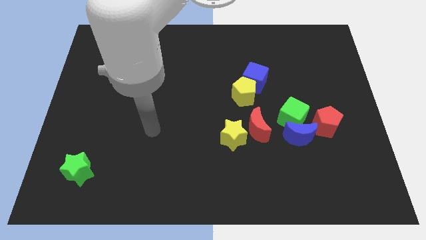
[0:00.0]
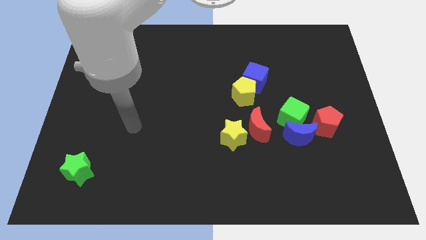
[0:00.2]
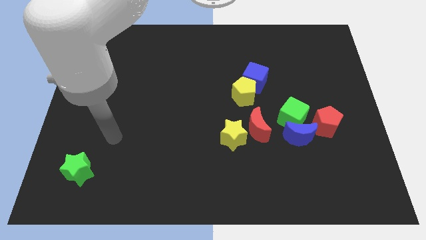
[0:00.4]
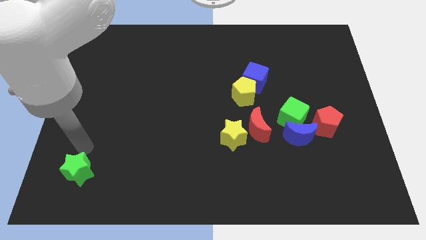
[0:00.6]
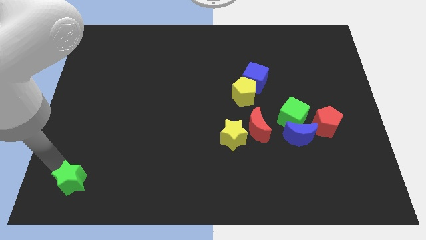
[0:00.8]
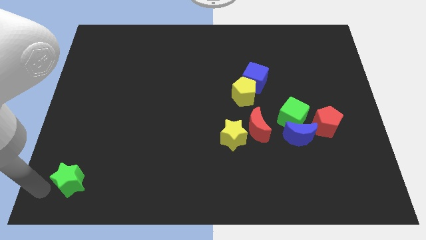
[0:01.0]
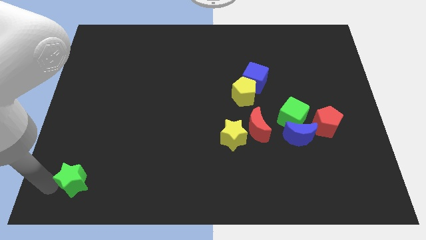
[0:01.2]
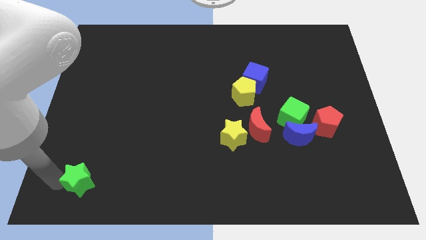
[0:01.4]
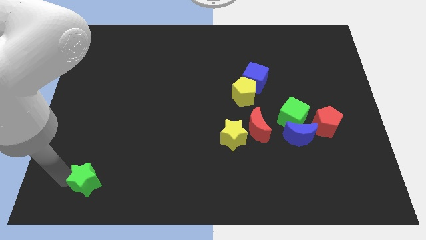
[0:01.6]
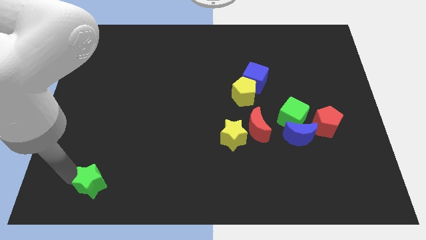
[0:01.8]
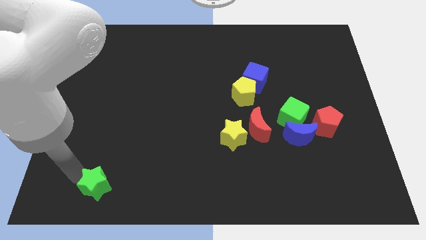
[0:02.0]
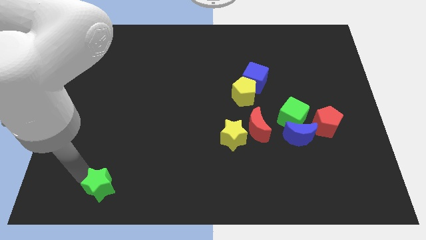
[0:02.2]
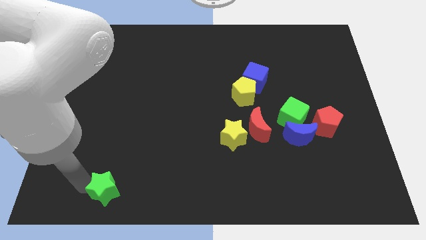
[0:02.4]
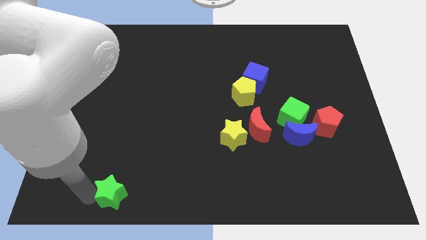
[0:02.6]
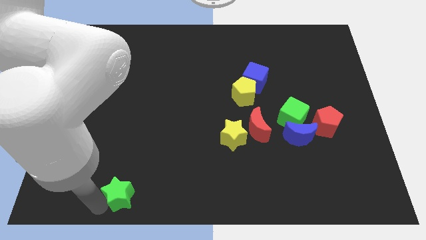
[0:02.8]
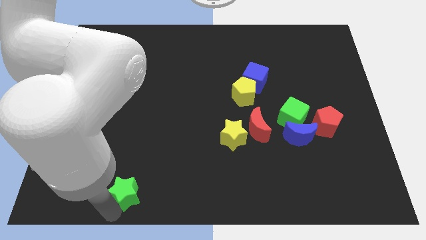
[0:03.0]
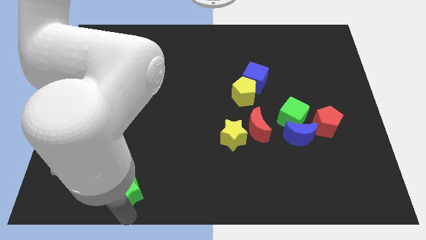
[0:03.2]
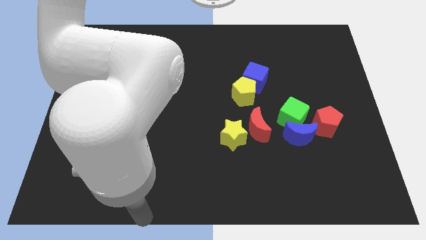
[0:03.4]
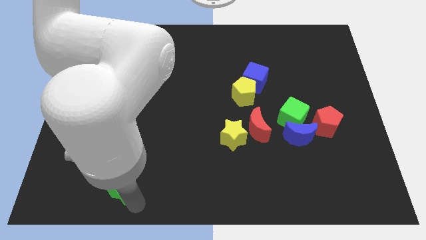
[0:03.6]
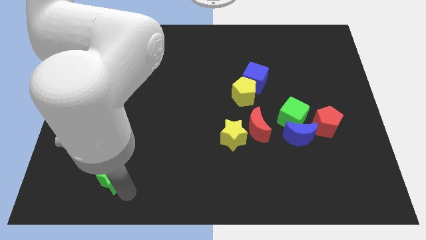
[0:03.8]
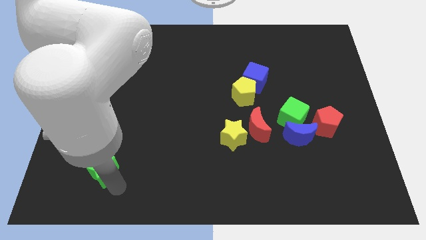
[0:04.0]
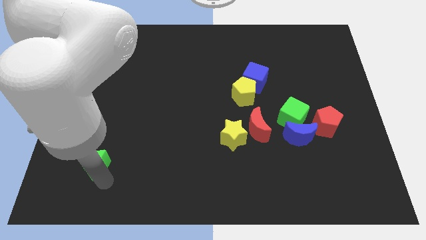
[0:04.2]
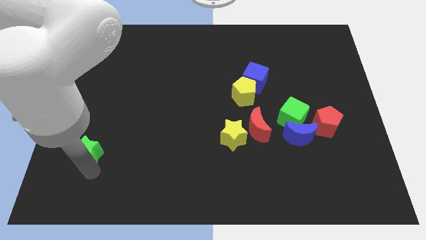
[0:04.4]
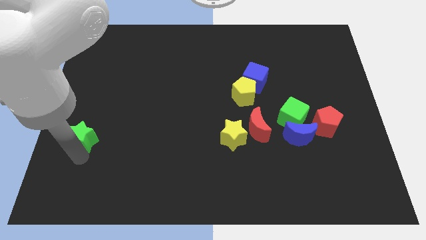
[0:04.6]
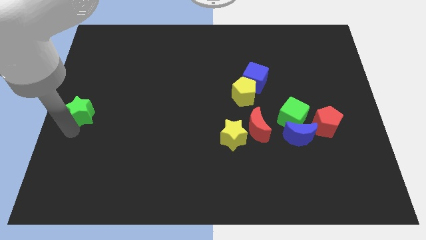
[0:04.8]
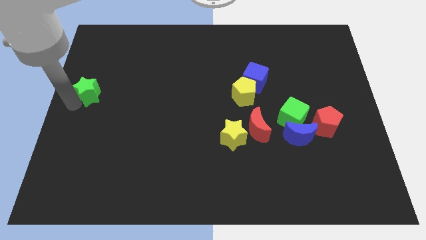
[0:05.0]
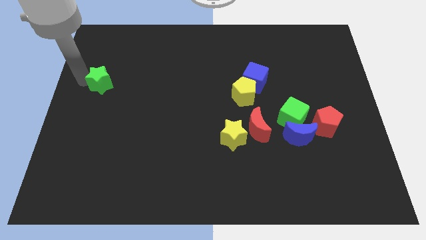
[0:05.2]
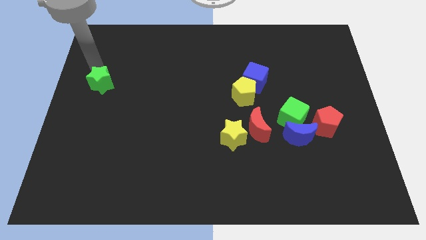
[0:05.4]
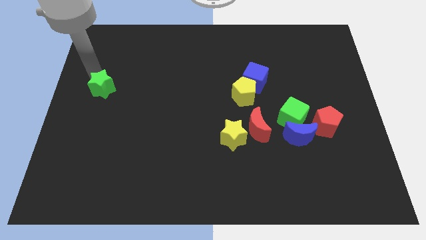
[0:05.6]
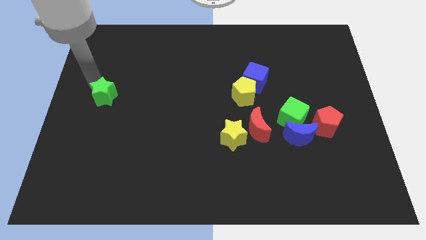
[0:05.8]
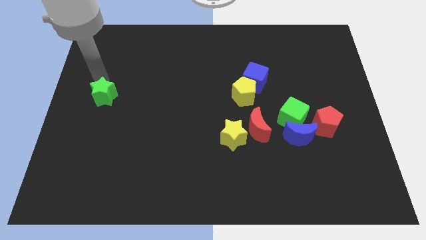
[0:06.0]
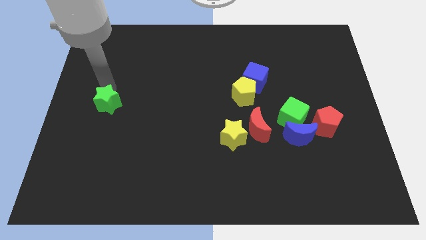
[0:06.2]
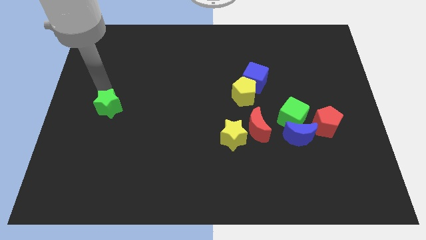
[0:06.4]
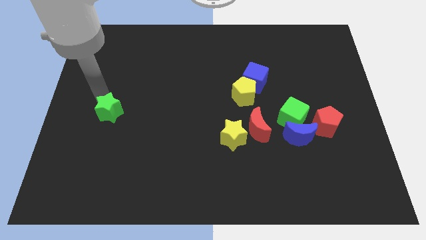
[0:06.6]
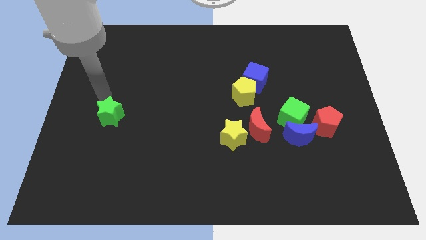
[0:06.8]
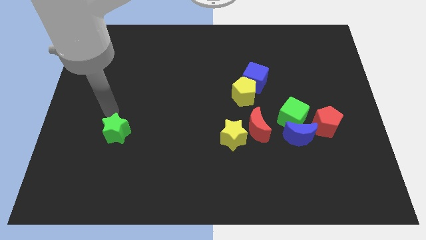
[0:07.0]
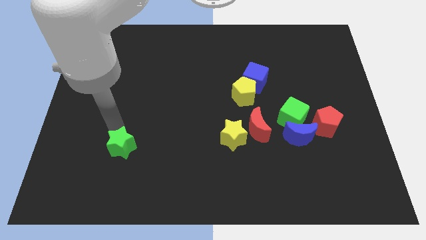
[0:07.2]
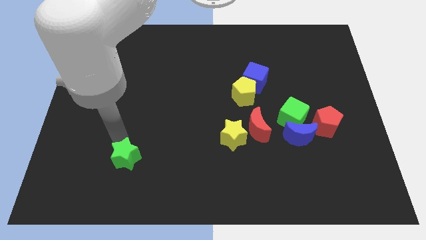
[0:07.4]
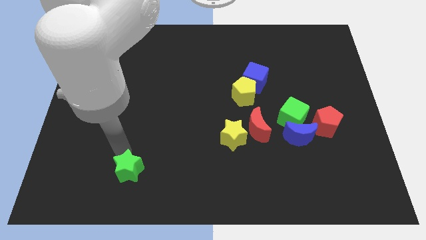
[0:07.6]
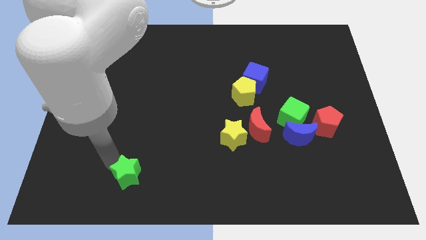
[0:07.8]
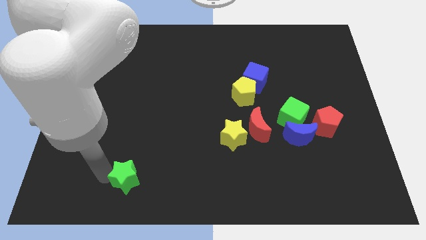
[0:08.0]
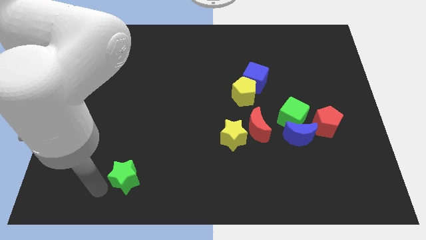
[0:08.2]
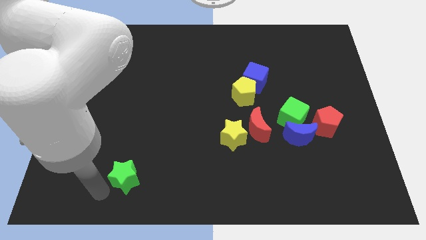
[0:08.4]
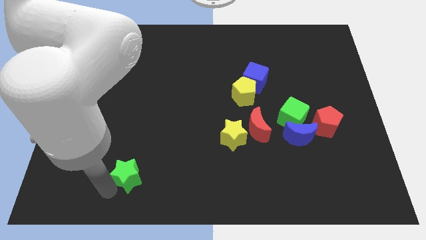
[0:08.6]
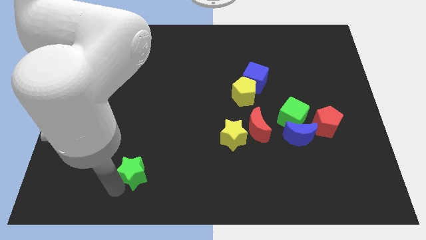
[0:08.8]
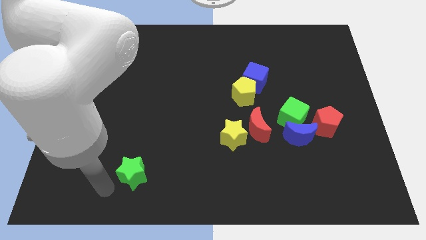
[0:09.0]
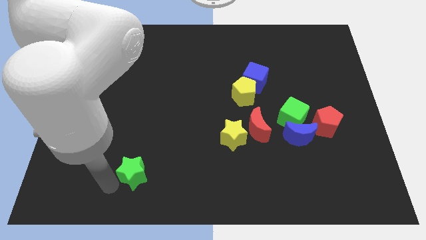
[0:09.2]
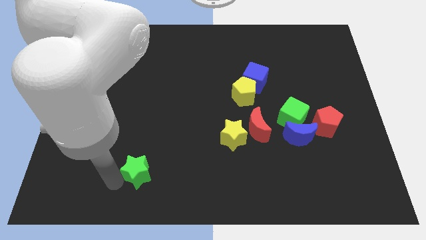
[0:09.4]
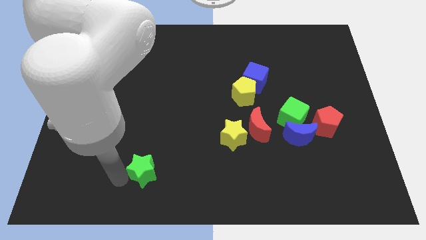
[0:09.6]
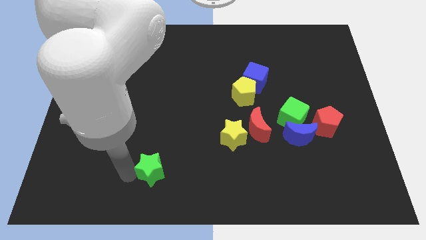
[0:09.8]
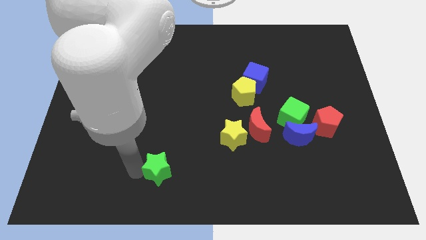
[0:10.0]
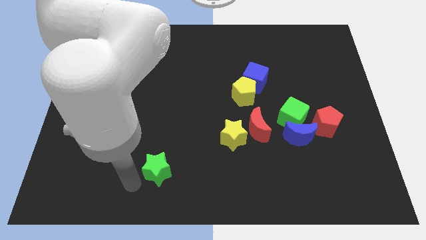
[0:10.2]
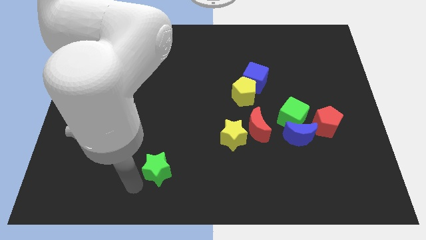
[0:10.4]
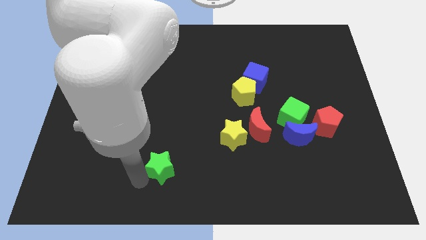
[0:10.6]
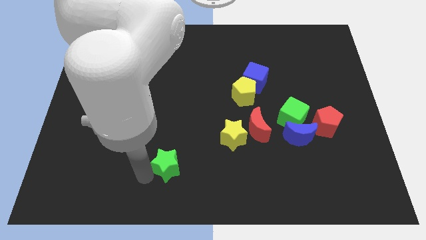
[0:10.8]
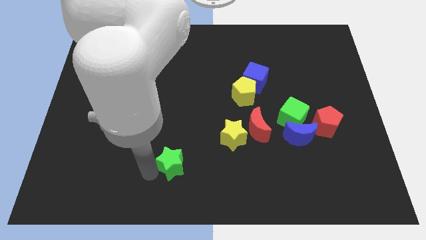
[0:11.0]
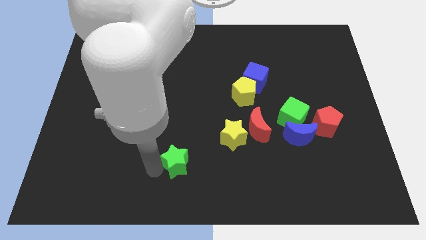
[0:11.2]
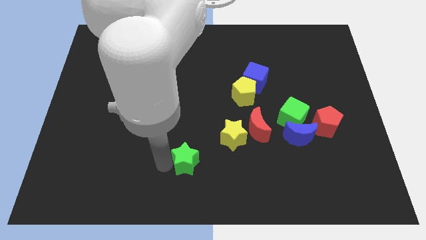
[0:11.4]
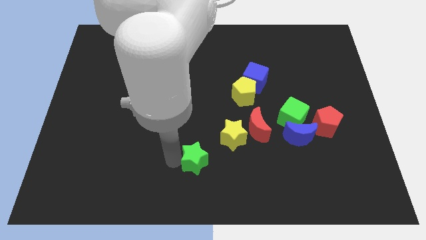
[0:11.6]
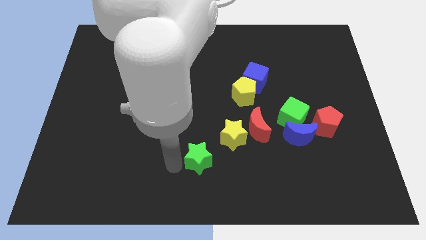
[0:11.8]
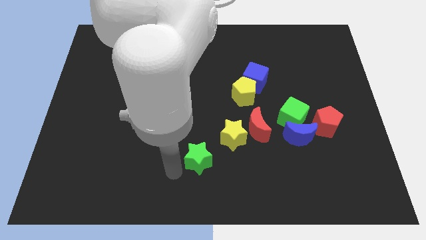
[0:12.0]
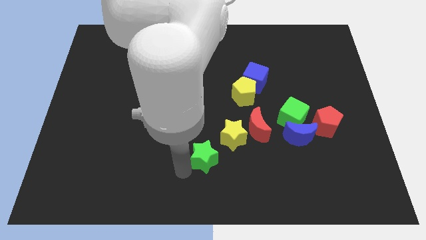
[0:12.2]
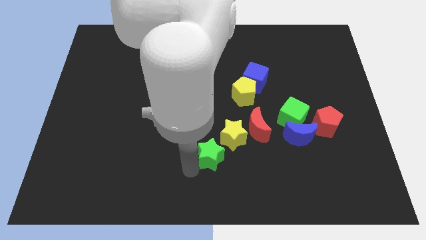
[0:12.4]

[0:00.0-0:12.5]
move the green star to the bottom left of the red moon

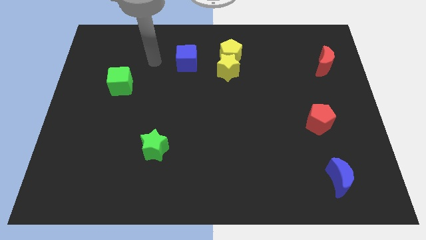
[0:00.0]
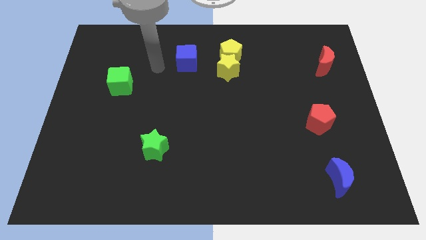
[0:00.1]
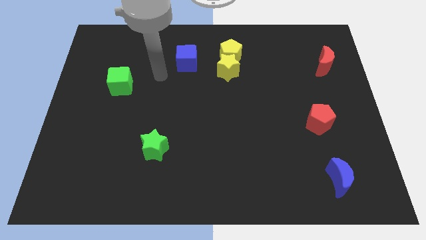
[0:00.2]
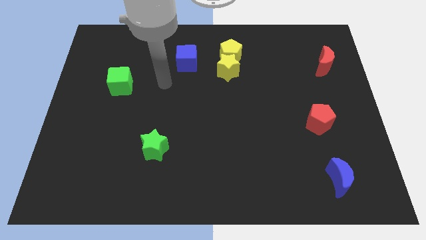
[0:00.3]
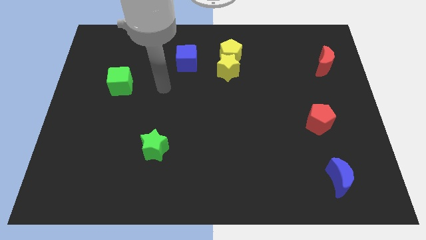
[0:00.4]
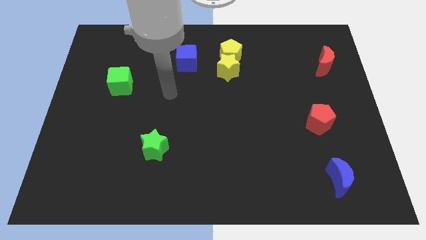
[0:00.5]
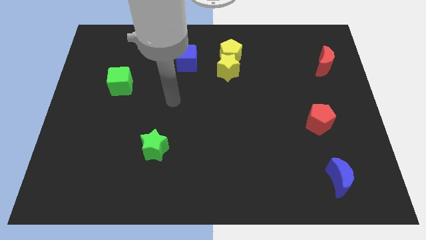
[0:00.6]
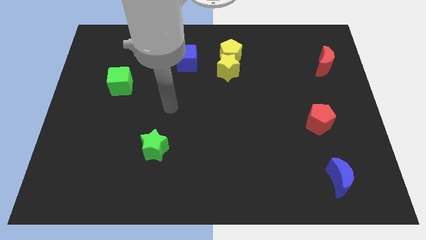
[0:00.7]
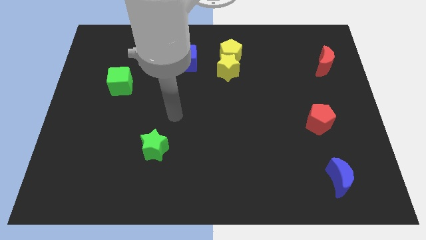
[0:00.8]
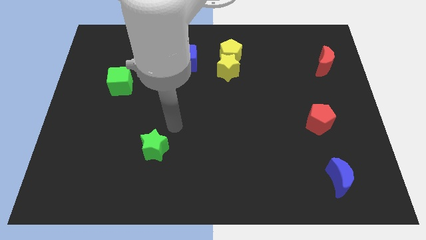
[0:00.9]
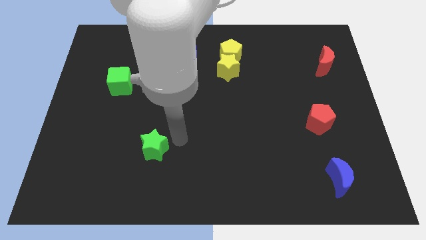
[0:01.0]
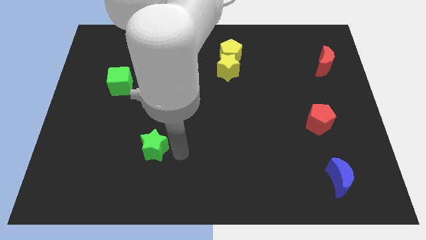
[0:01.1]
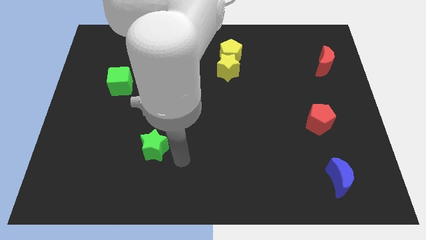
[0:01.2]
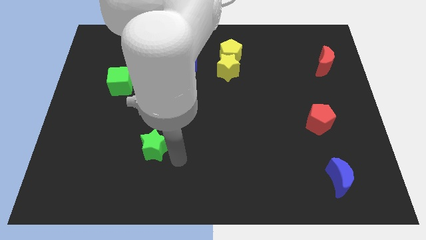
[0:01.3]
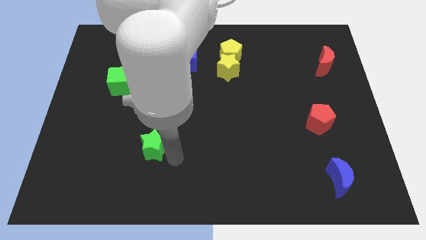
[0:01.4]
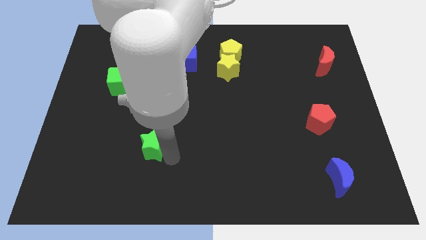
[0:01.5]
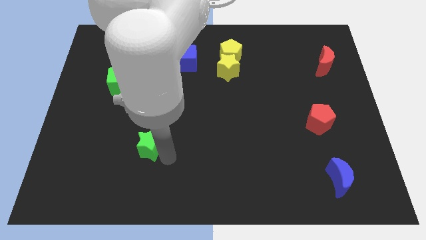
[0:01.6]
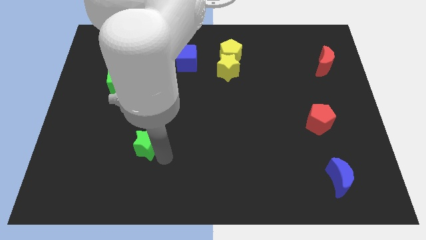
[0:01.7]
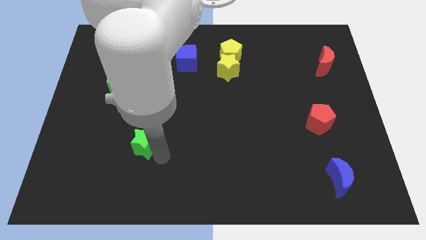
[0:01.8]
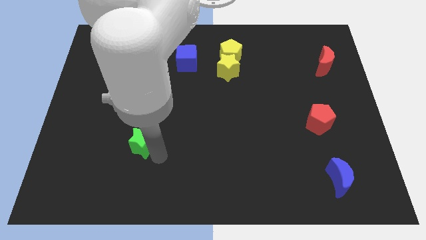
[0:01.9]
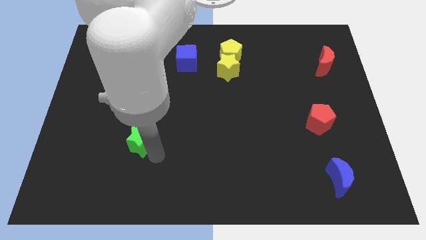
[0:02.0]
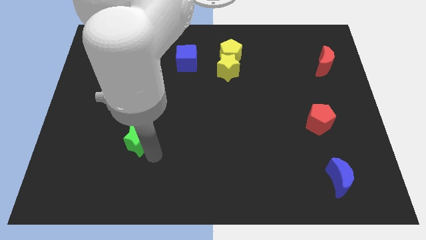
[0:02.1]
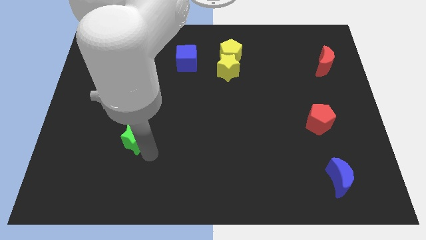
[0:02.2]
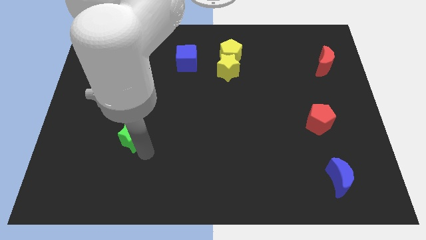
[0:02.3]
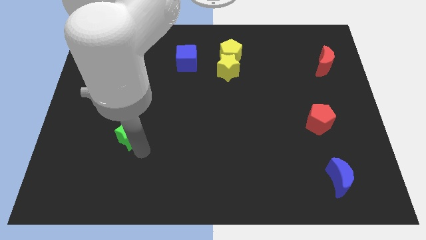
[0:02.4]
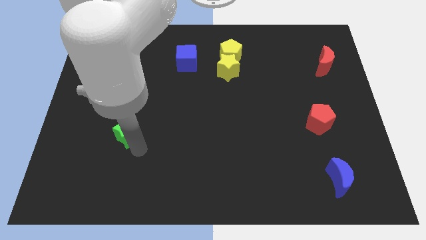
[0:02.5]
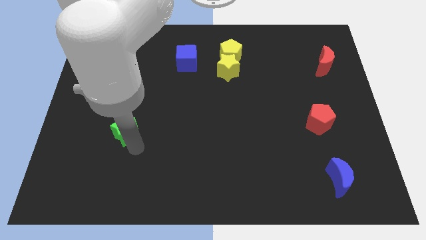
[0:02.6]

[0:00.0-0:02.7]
slide the green star to the bottom of the green cube
